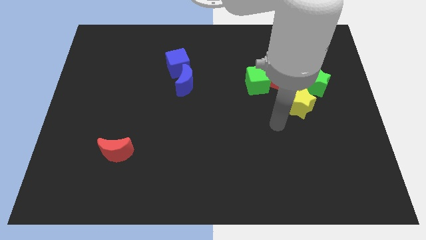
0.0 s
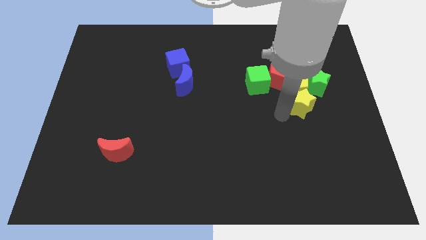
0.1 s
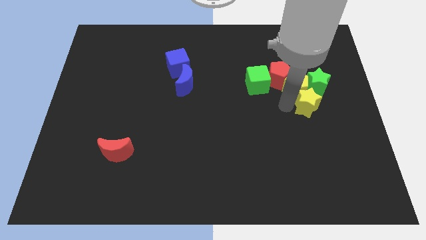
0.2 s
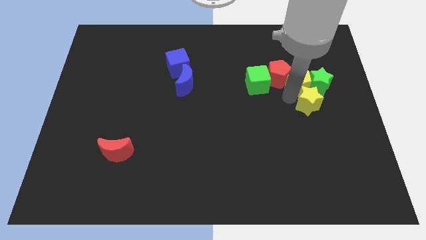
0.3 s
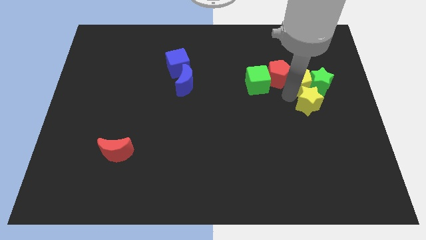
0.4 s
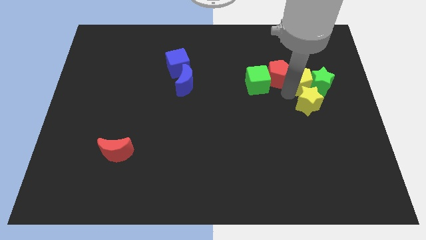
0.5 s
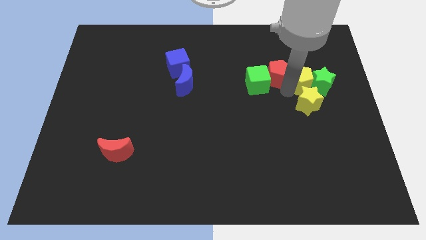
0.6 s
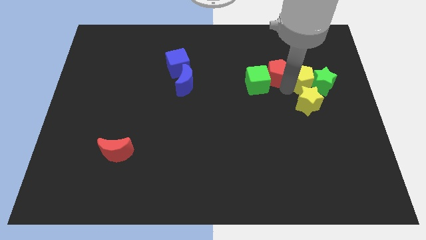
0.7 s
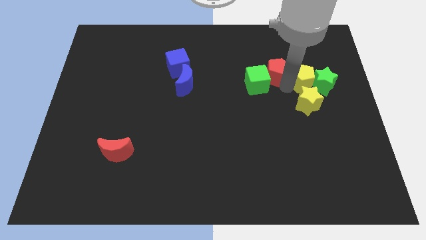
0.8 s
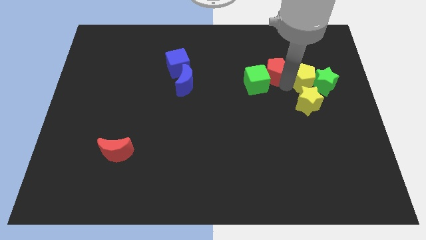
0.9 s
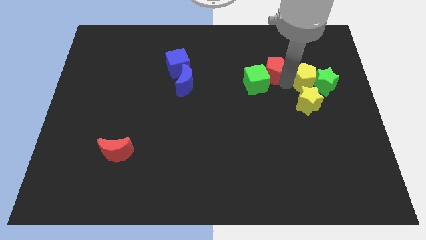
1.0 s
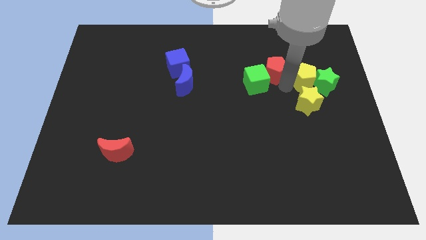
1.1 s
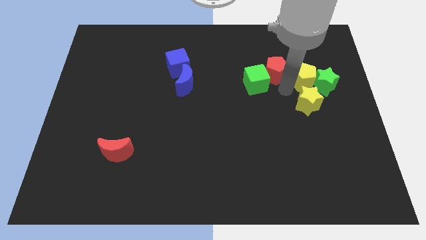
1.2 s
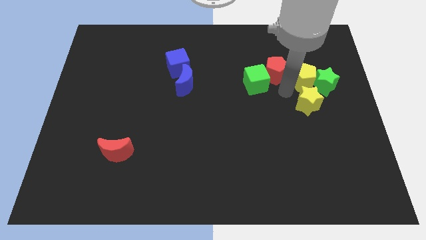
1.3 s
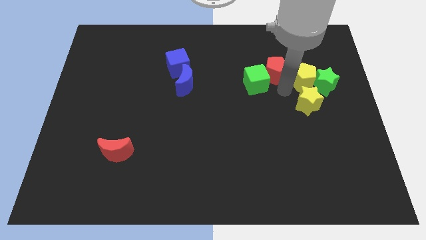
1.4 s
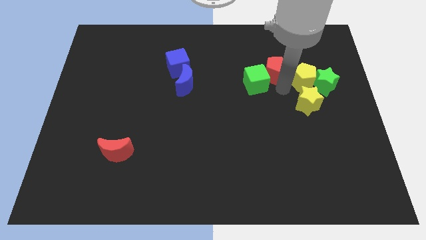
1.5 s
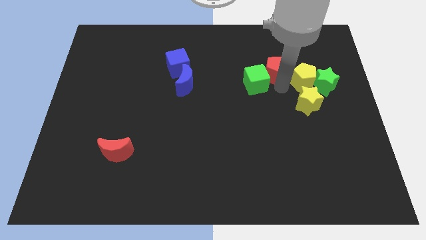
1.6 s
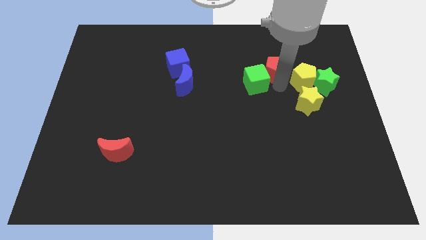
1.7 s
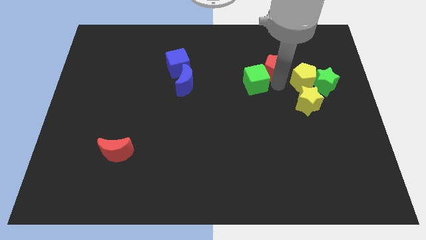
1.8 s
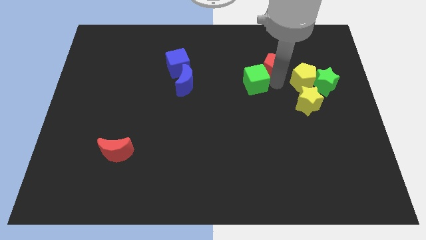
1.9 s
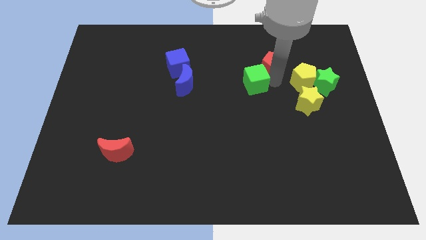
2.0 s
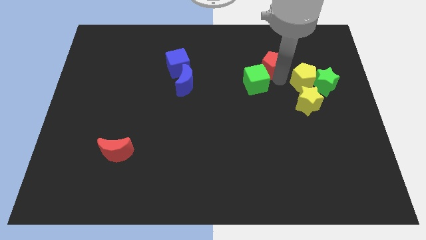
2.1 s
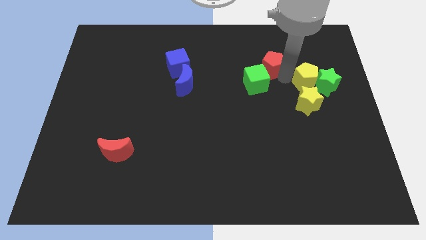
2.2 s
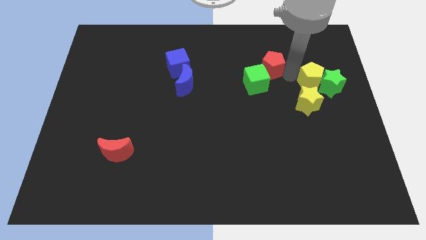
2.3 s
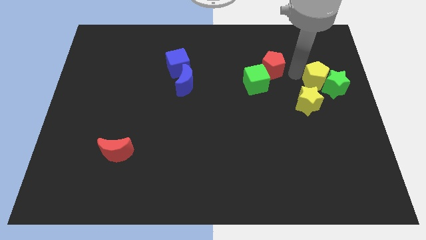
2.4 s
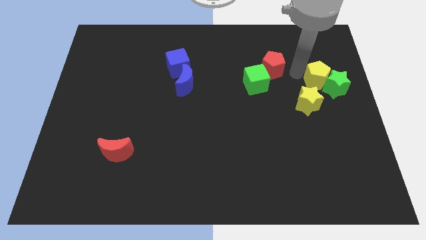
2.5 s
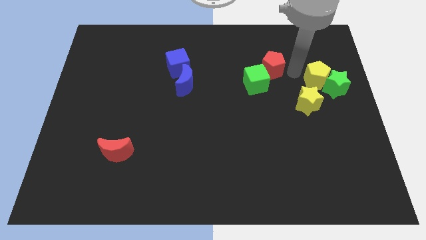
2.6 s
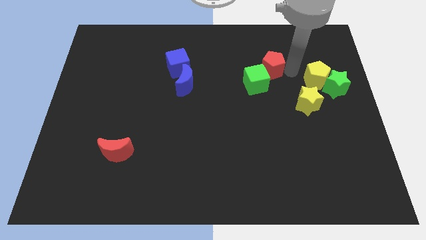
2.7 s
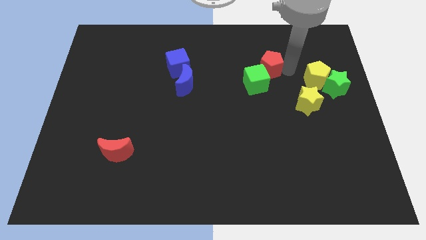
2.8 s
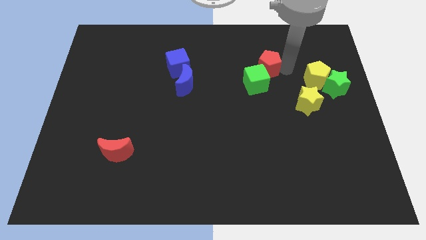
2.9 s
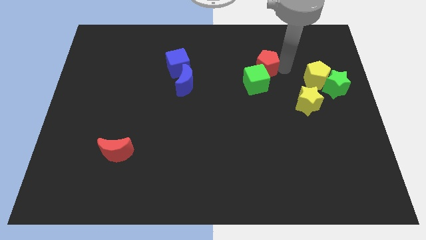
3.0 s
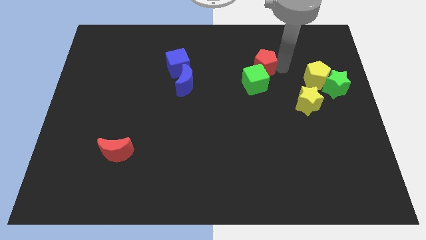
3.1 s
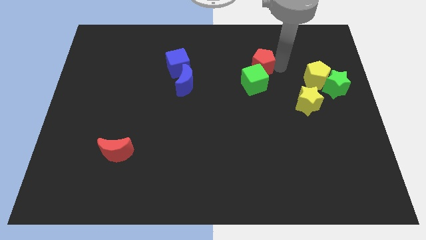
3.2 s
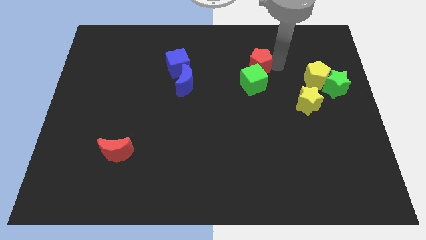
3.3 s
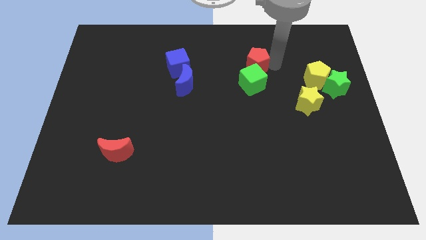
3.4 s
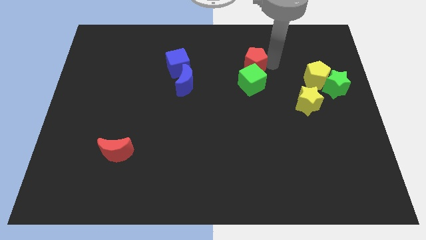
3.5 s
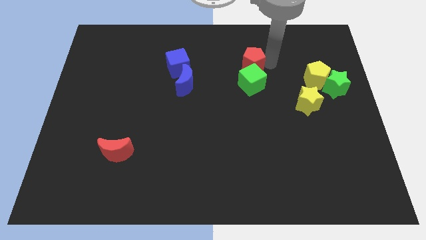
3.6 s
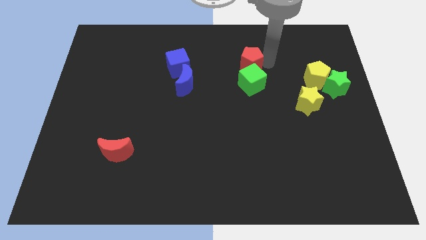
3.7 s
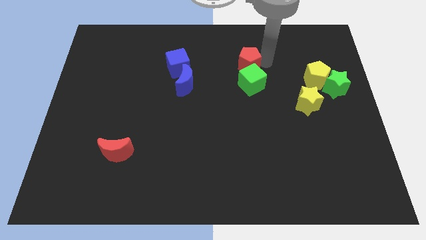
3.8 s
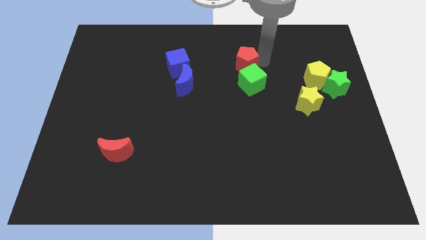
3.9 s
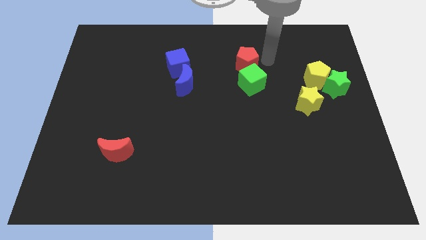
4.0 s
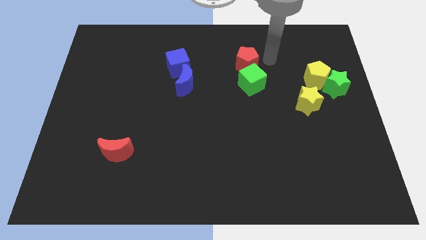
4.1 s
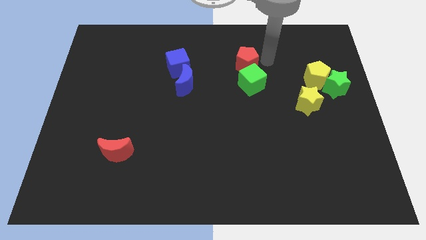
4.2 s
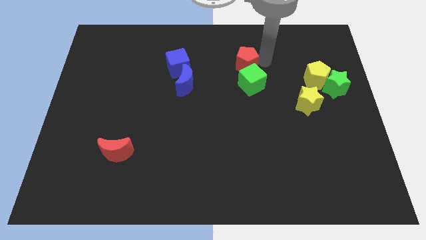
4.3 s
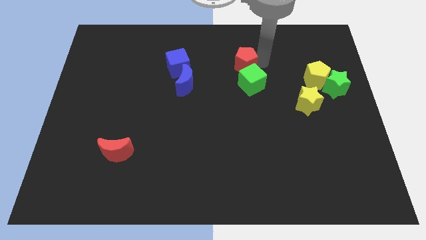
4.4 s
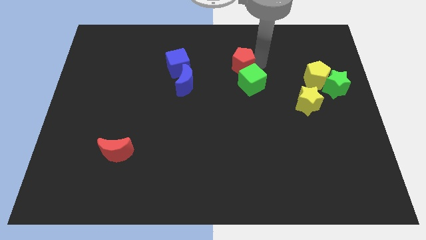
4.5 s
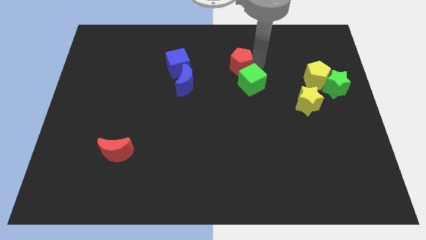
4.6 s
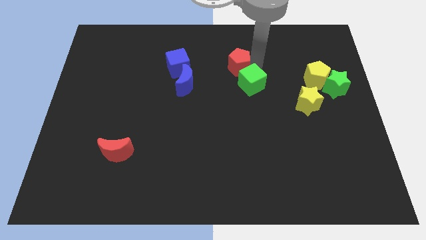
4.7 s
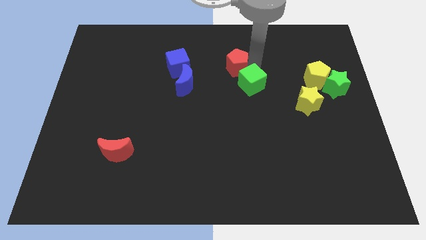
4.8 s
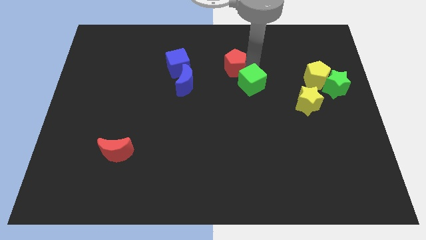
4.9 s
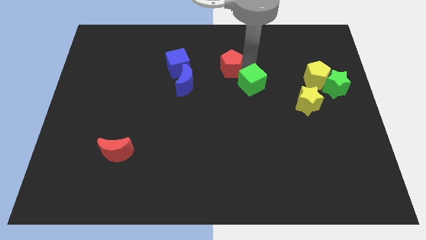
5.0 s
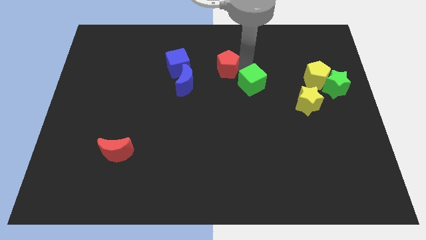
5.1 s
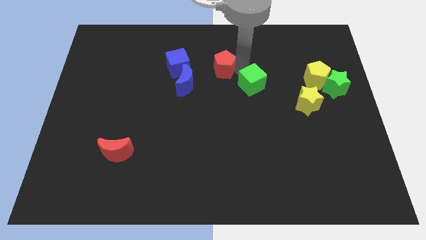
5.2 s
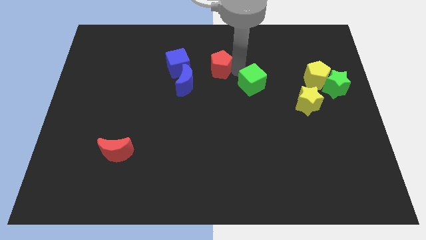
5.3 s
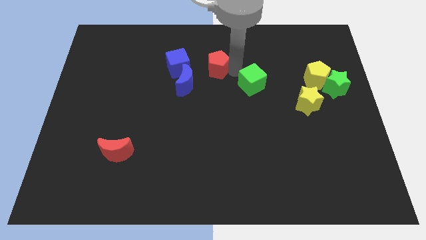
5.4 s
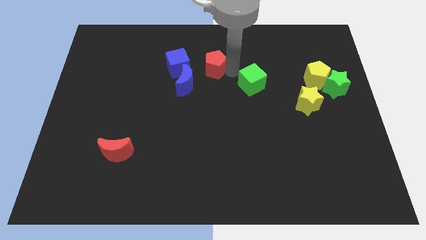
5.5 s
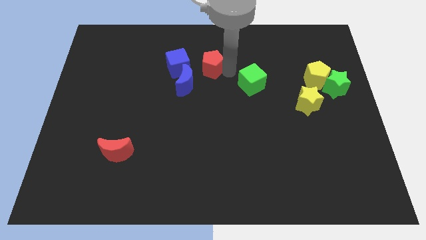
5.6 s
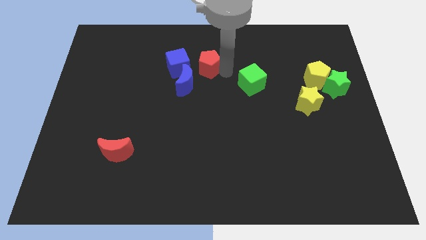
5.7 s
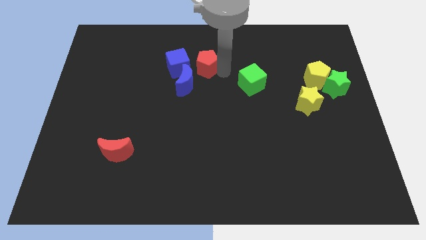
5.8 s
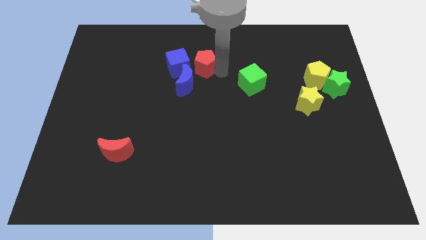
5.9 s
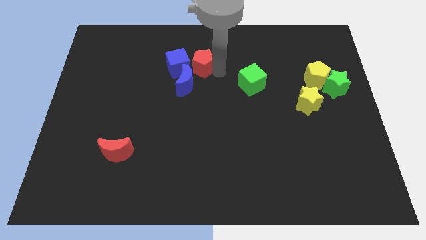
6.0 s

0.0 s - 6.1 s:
move the red pentagon towards the blue cube

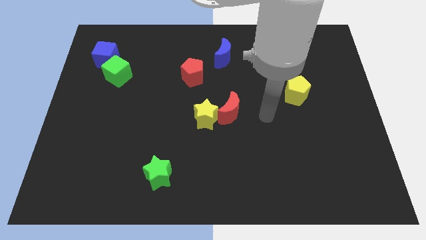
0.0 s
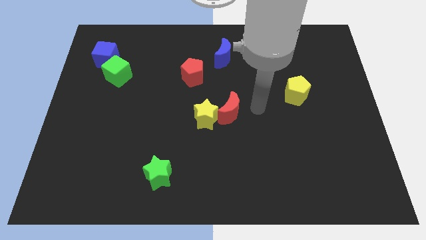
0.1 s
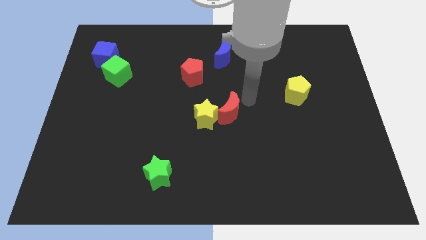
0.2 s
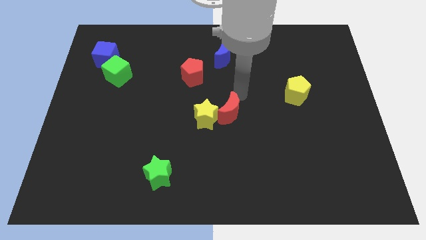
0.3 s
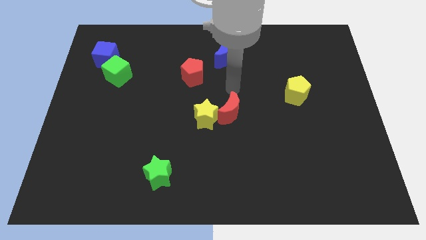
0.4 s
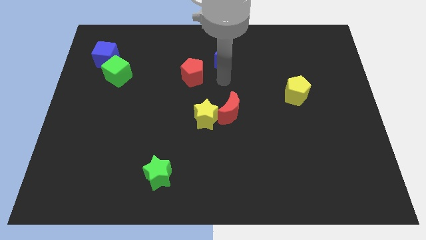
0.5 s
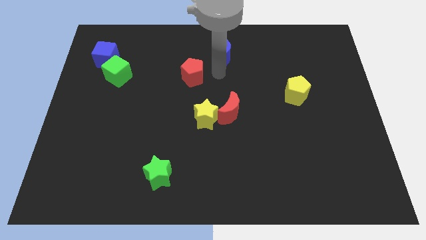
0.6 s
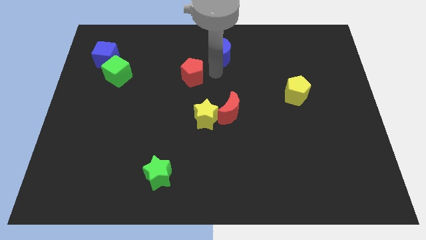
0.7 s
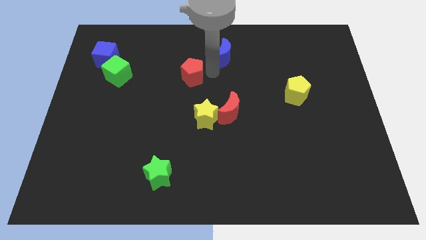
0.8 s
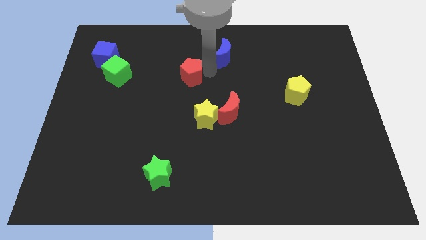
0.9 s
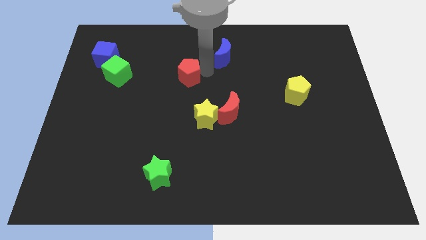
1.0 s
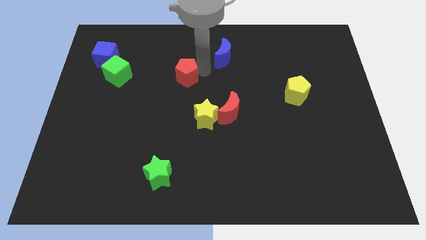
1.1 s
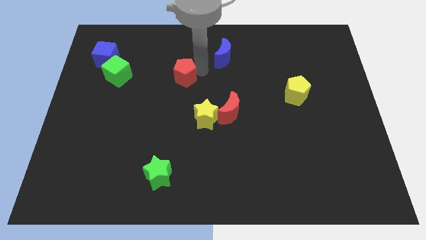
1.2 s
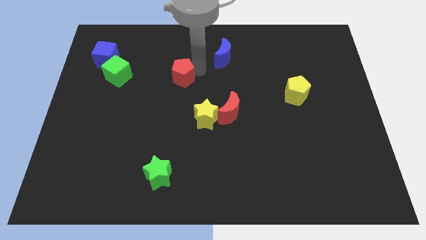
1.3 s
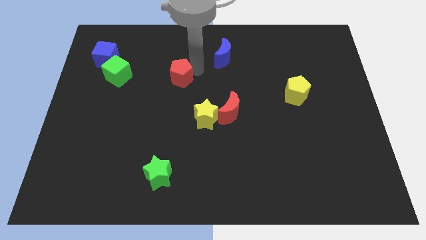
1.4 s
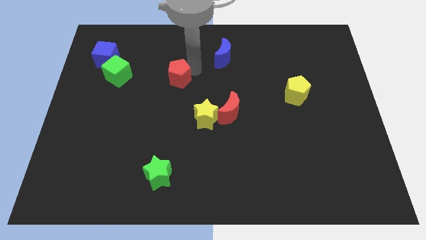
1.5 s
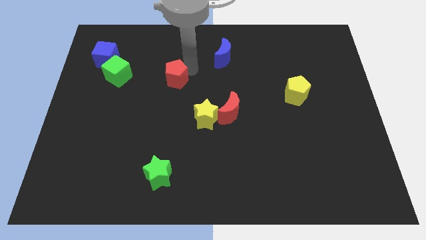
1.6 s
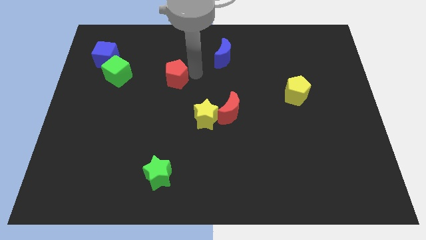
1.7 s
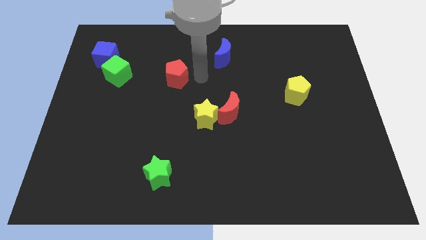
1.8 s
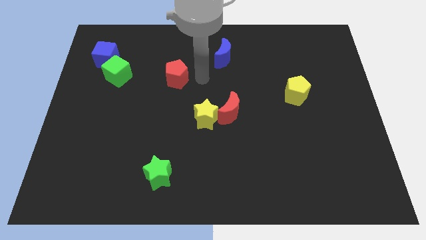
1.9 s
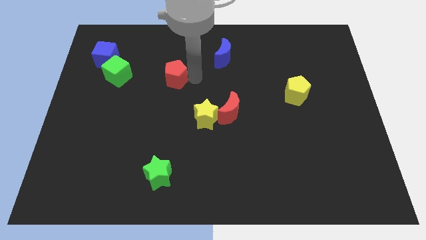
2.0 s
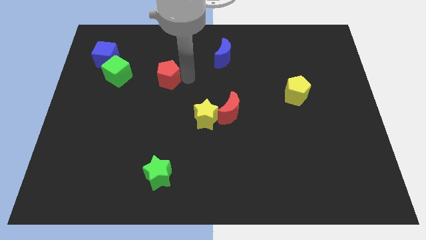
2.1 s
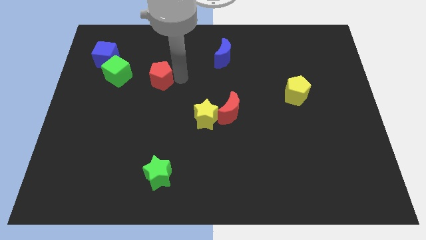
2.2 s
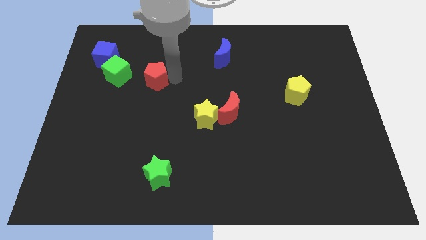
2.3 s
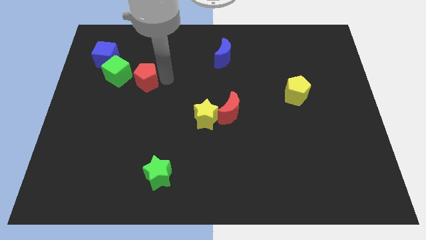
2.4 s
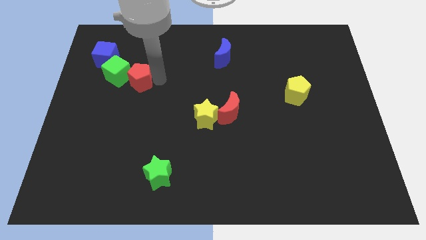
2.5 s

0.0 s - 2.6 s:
move the red pentagon towards the green cube
